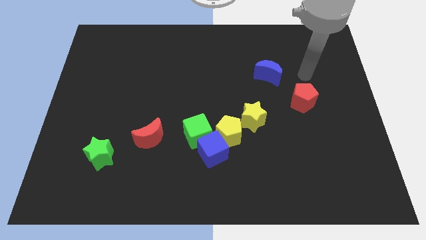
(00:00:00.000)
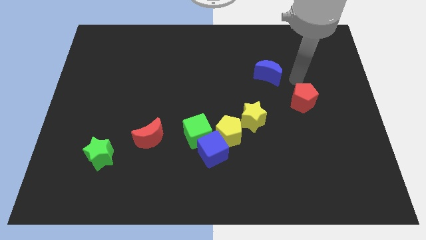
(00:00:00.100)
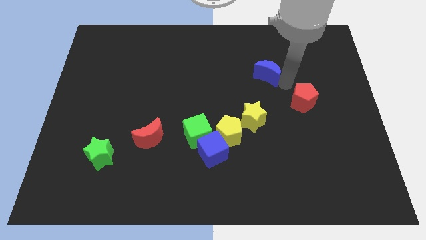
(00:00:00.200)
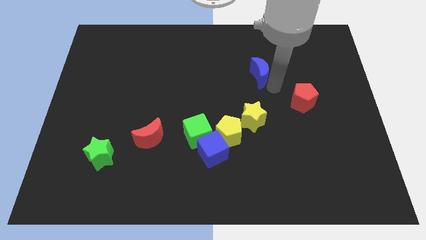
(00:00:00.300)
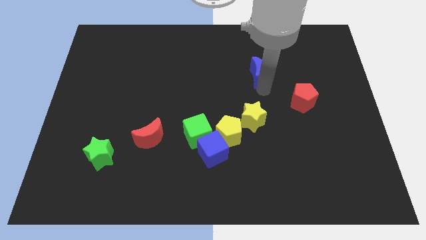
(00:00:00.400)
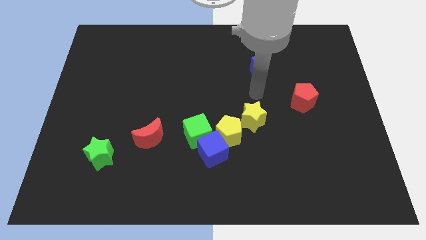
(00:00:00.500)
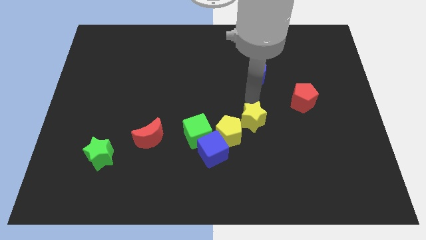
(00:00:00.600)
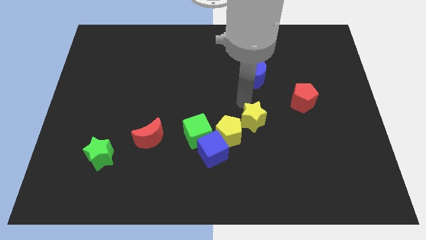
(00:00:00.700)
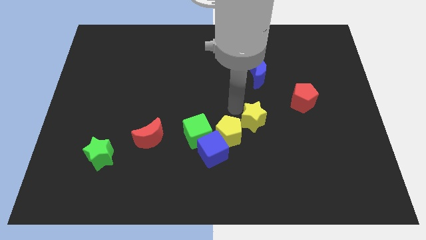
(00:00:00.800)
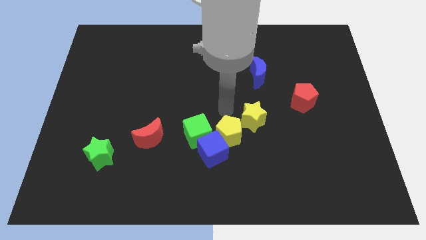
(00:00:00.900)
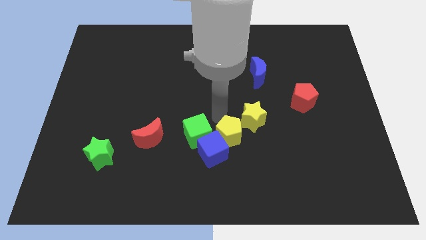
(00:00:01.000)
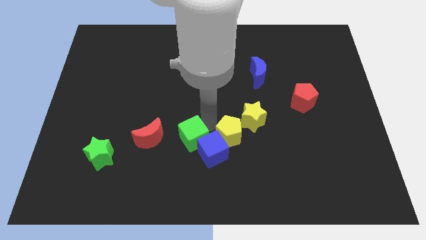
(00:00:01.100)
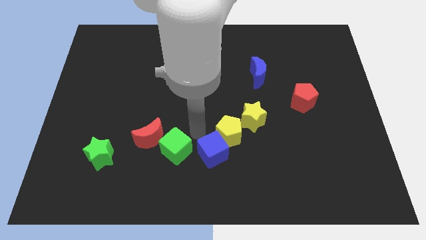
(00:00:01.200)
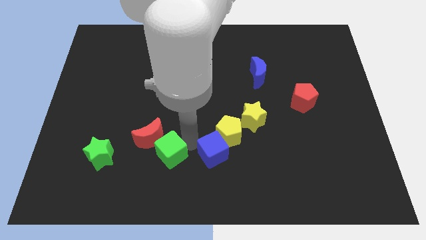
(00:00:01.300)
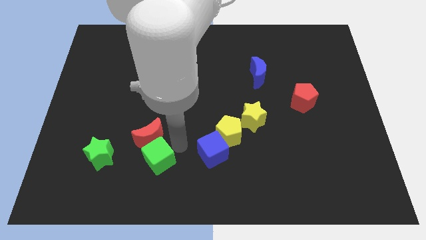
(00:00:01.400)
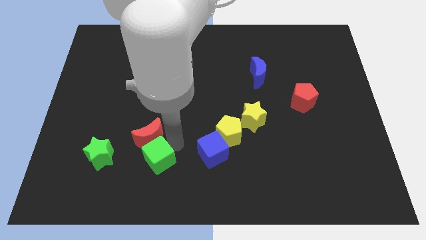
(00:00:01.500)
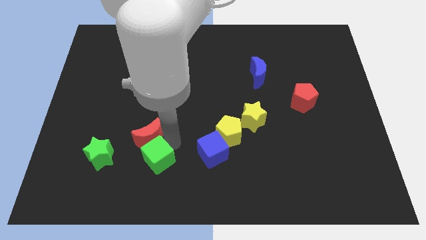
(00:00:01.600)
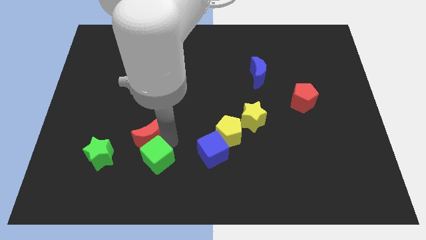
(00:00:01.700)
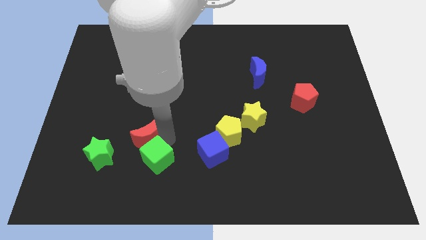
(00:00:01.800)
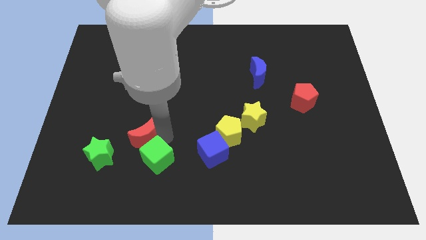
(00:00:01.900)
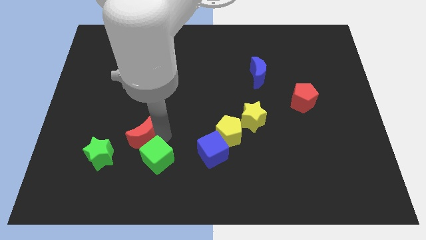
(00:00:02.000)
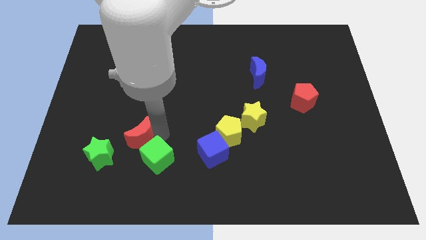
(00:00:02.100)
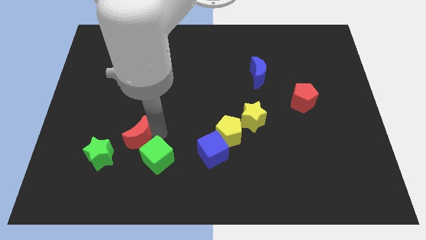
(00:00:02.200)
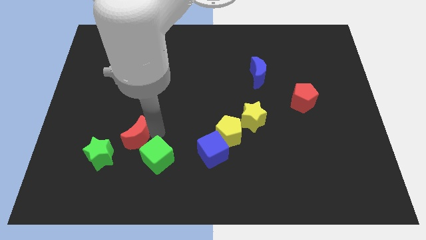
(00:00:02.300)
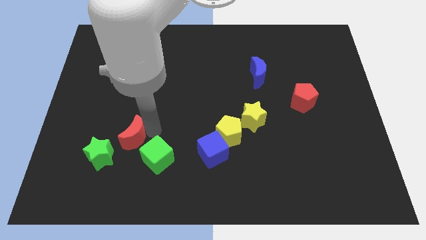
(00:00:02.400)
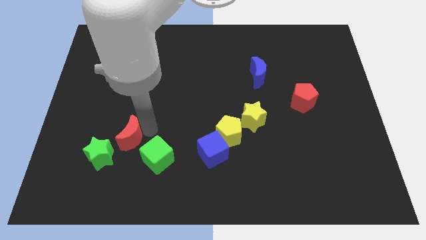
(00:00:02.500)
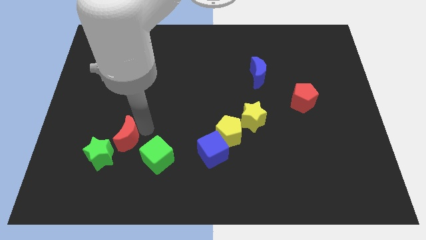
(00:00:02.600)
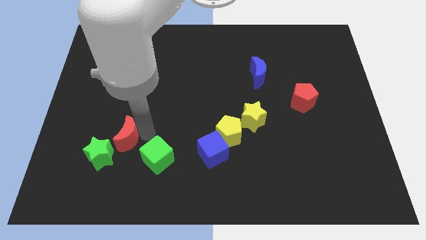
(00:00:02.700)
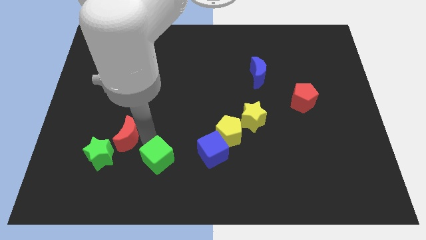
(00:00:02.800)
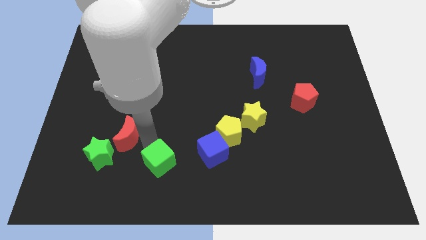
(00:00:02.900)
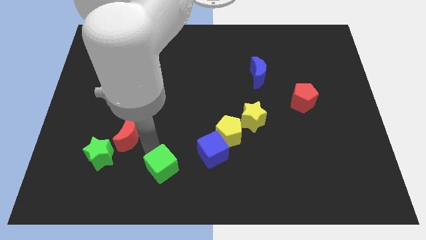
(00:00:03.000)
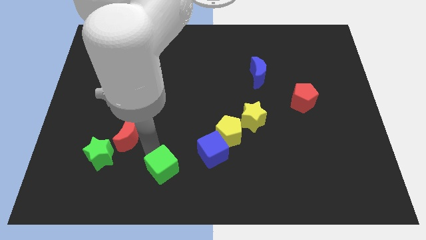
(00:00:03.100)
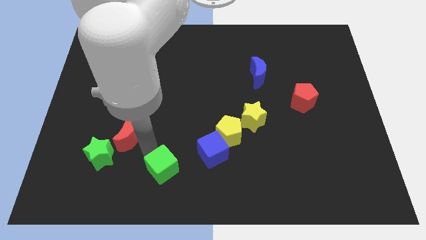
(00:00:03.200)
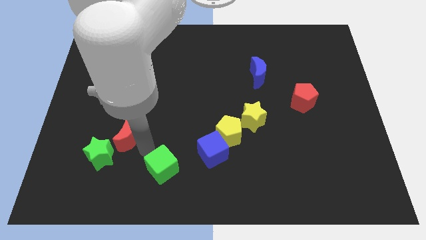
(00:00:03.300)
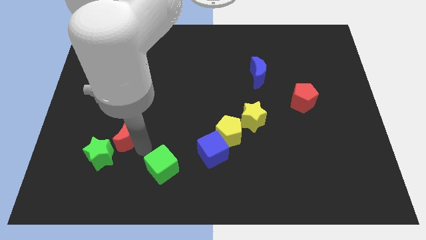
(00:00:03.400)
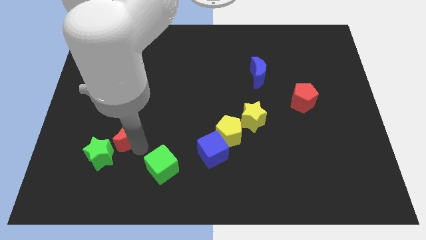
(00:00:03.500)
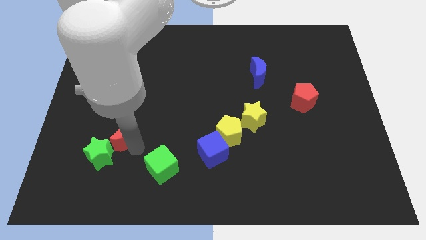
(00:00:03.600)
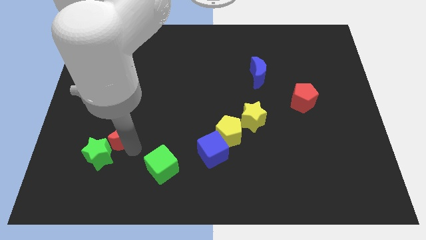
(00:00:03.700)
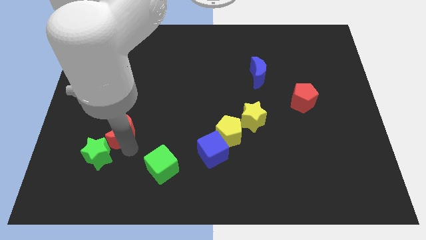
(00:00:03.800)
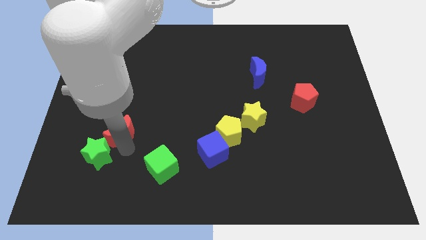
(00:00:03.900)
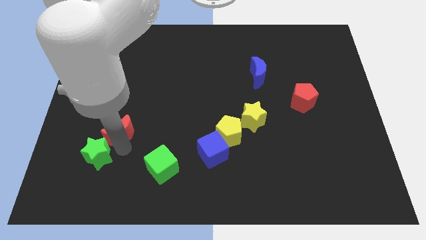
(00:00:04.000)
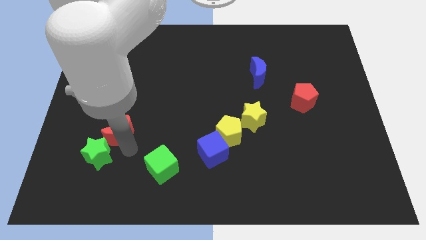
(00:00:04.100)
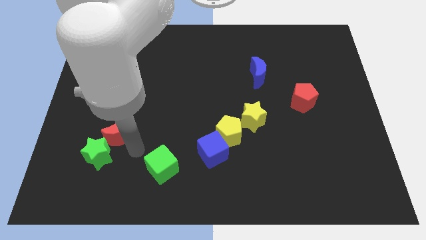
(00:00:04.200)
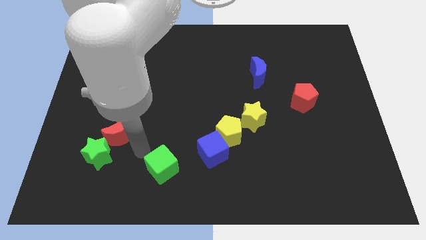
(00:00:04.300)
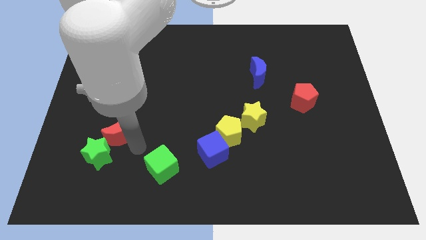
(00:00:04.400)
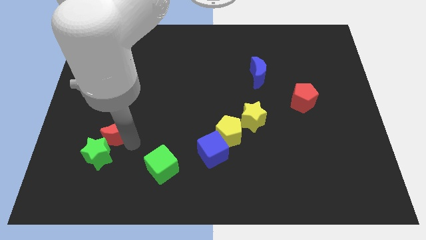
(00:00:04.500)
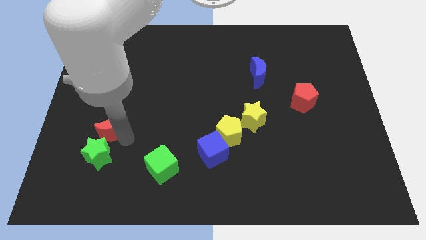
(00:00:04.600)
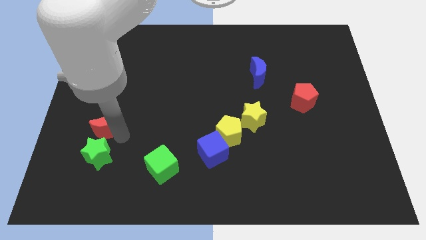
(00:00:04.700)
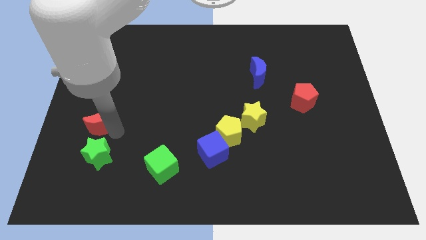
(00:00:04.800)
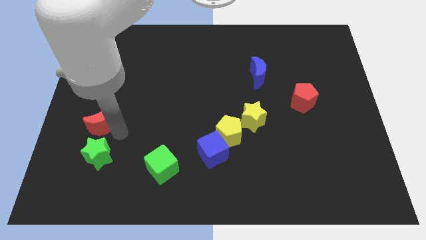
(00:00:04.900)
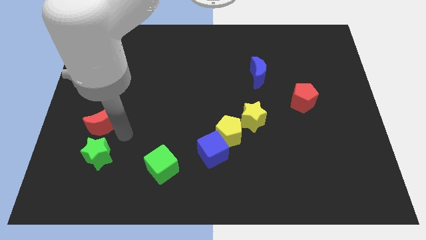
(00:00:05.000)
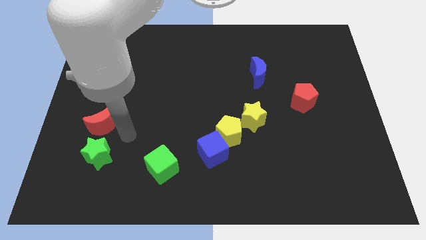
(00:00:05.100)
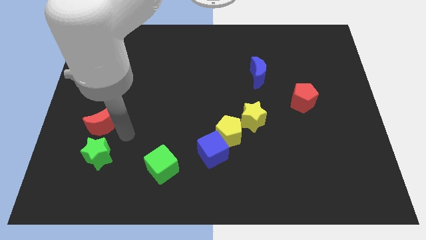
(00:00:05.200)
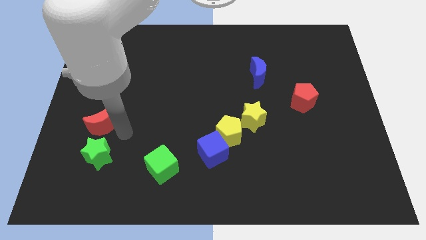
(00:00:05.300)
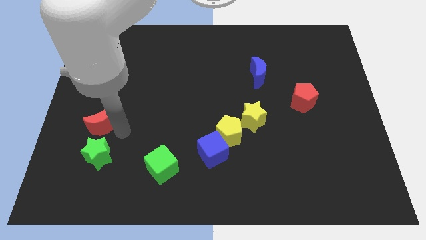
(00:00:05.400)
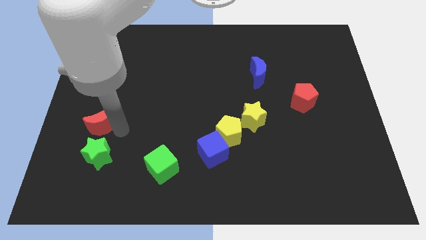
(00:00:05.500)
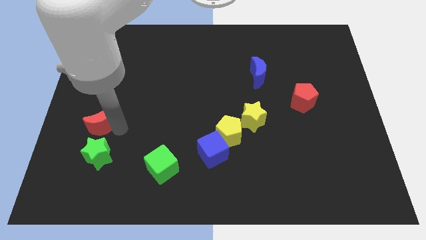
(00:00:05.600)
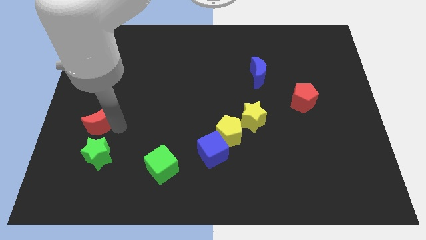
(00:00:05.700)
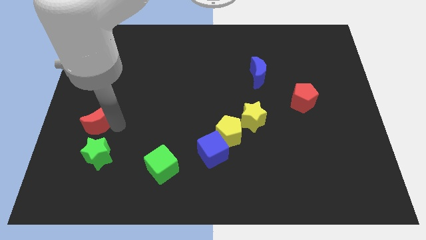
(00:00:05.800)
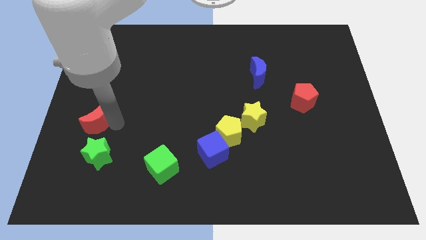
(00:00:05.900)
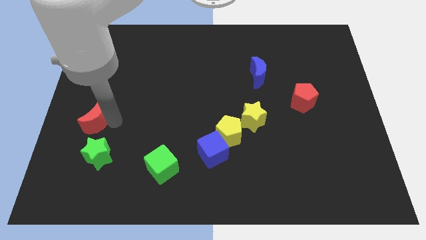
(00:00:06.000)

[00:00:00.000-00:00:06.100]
put the red moon to the left side
